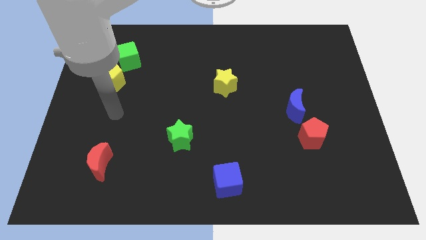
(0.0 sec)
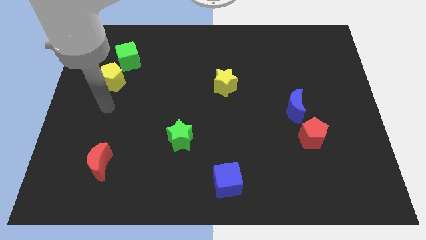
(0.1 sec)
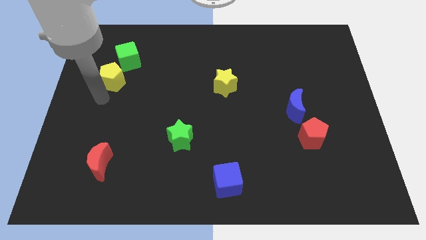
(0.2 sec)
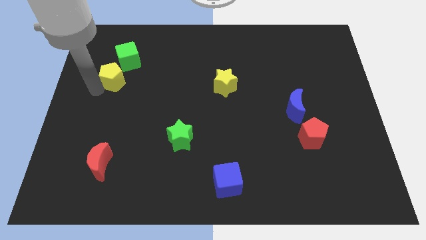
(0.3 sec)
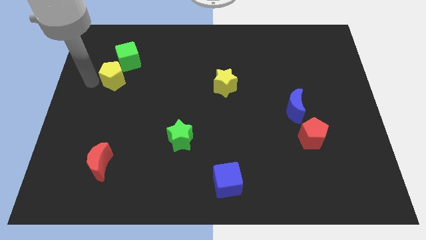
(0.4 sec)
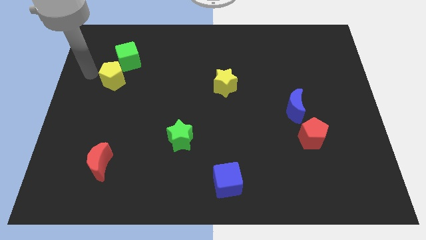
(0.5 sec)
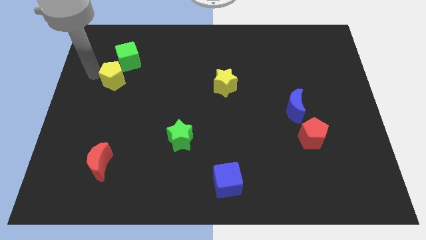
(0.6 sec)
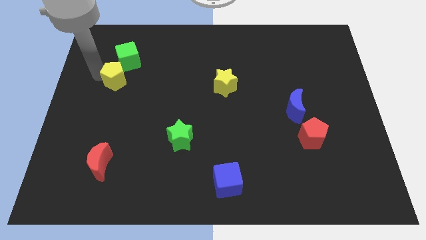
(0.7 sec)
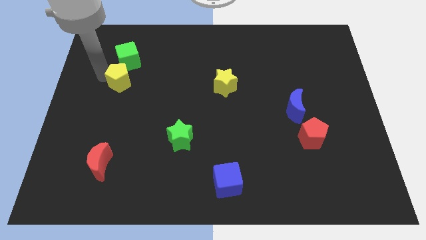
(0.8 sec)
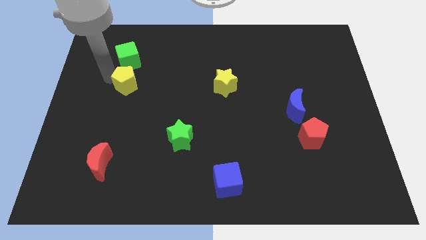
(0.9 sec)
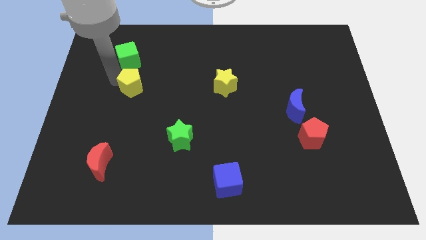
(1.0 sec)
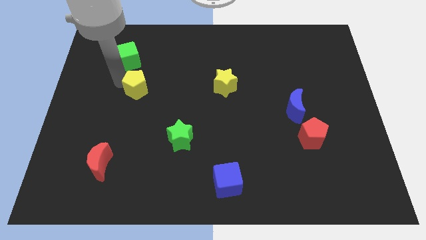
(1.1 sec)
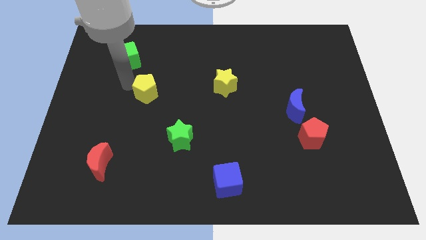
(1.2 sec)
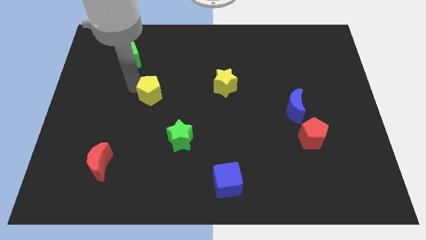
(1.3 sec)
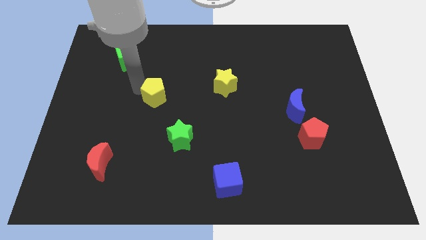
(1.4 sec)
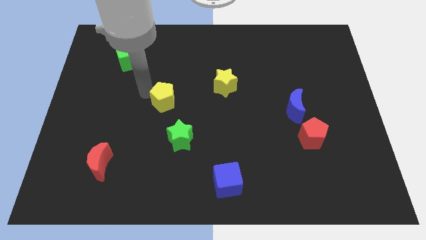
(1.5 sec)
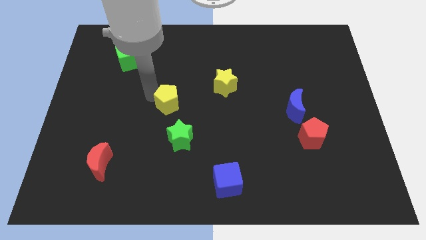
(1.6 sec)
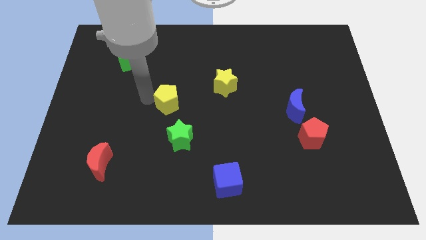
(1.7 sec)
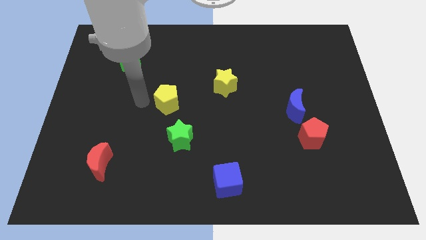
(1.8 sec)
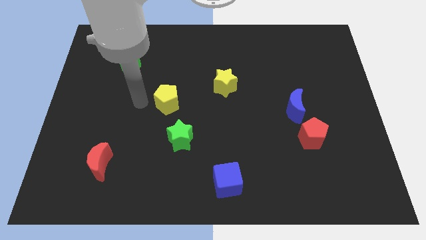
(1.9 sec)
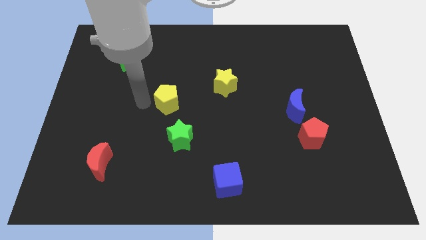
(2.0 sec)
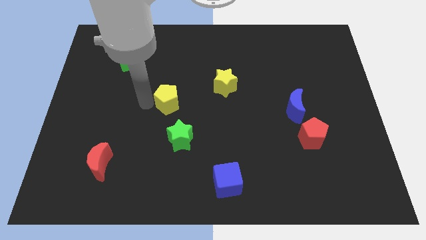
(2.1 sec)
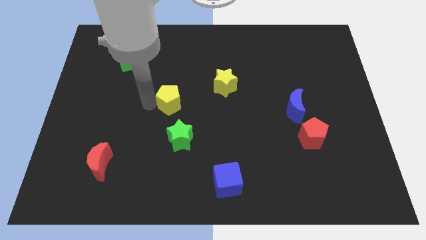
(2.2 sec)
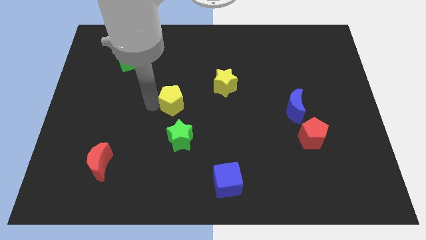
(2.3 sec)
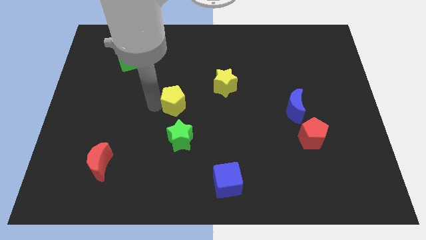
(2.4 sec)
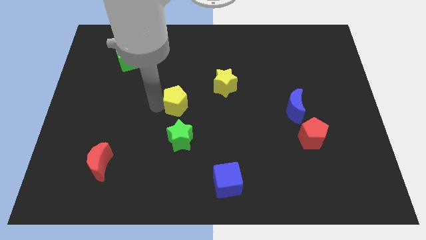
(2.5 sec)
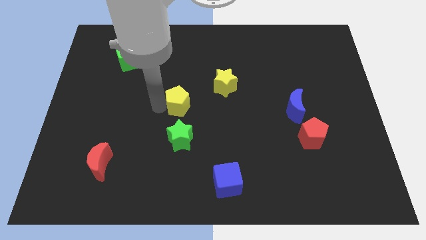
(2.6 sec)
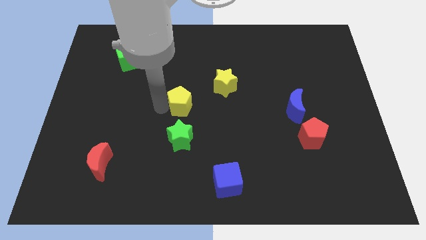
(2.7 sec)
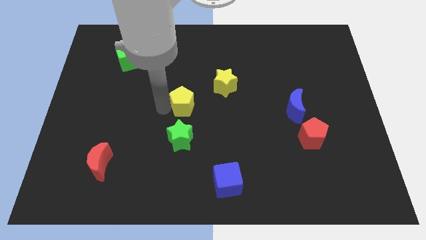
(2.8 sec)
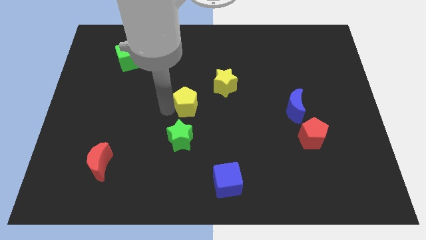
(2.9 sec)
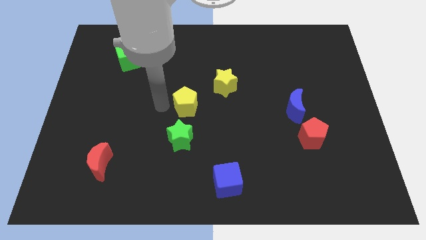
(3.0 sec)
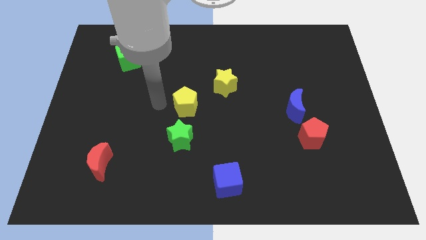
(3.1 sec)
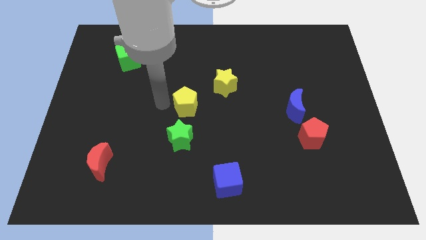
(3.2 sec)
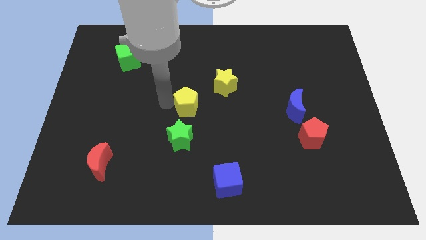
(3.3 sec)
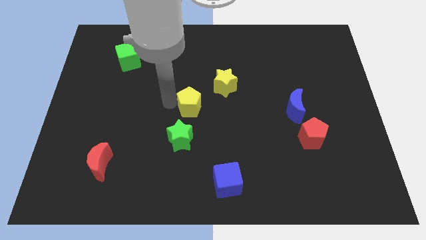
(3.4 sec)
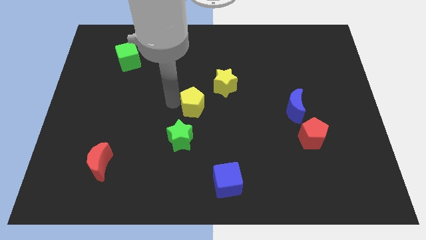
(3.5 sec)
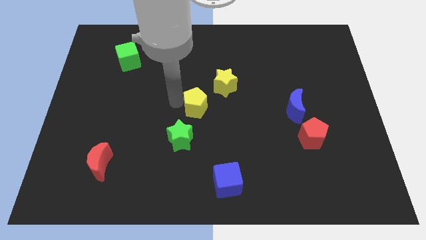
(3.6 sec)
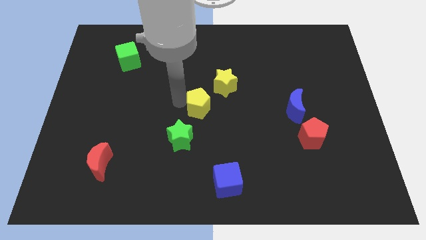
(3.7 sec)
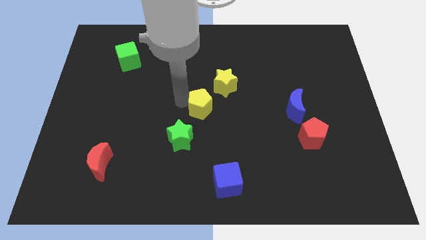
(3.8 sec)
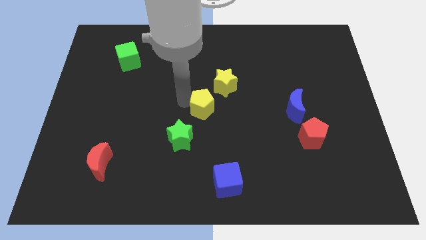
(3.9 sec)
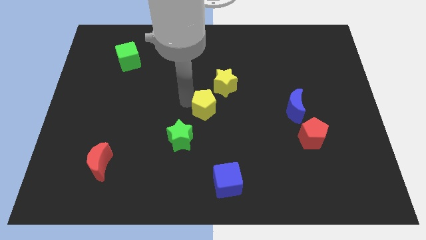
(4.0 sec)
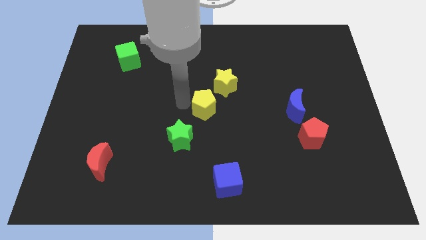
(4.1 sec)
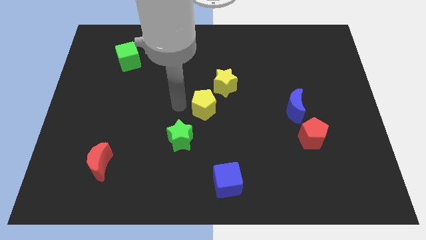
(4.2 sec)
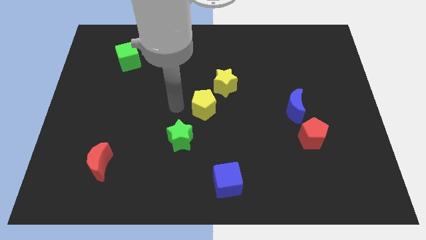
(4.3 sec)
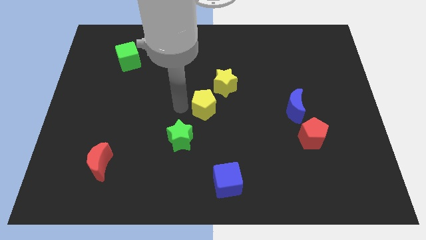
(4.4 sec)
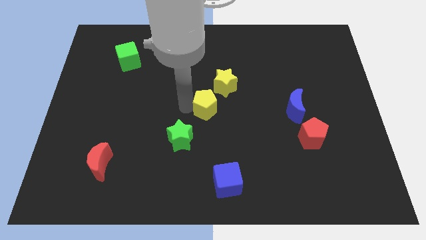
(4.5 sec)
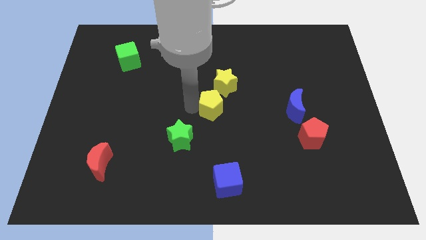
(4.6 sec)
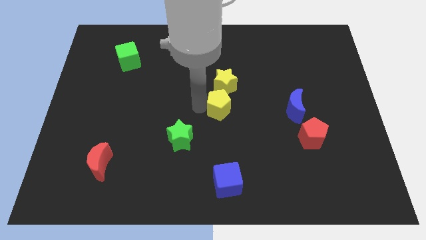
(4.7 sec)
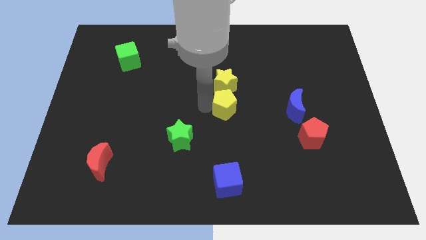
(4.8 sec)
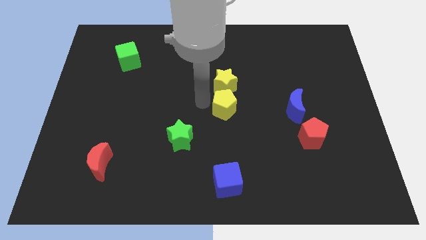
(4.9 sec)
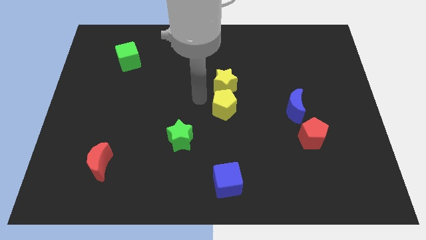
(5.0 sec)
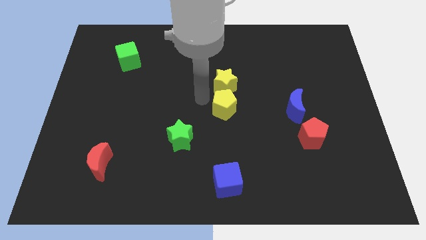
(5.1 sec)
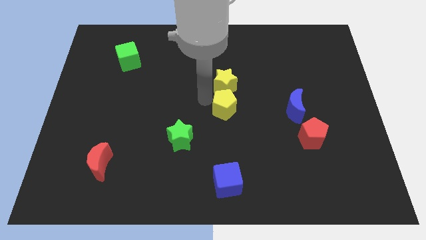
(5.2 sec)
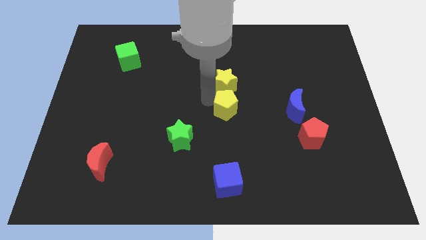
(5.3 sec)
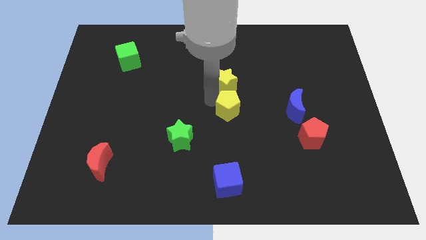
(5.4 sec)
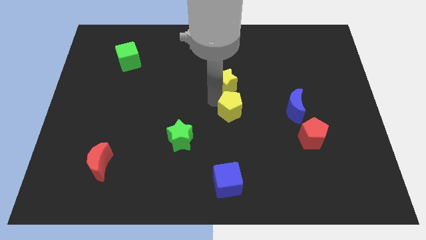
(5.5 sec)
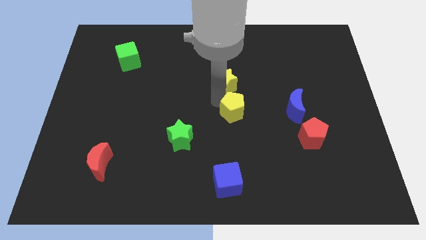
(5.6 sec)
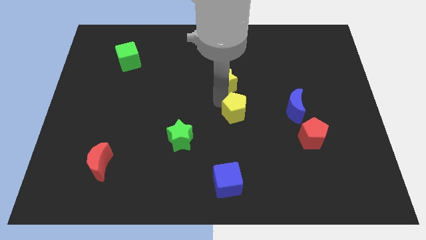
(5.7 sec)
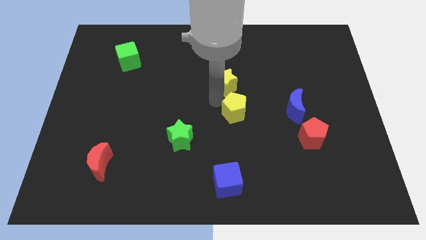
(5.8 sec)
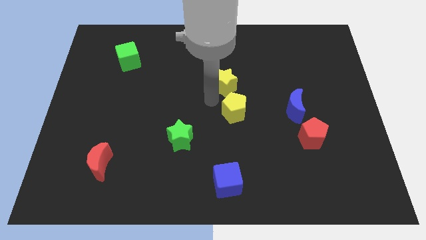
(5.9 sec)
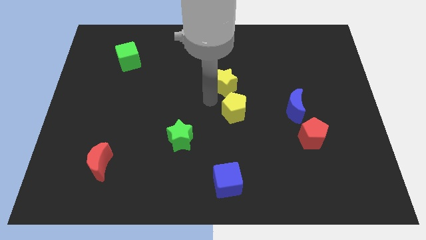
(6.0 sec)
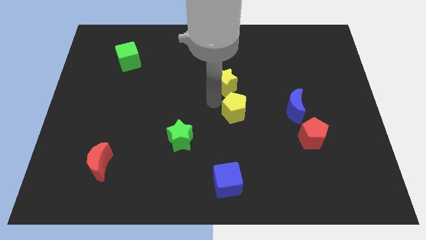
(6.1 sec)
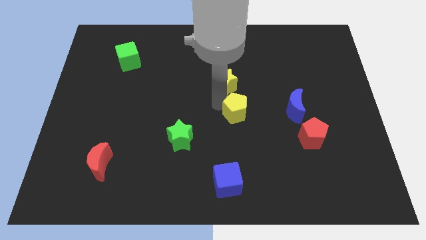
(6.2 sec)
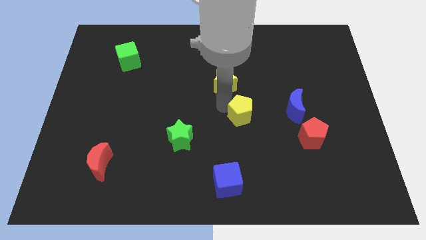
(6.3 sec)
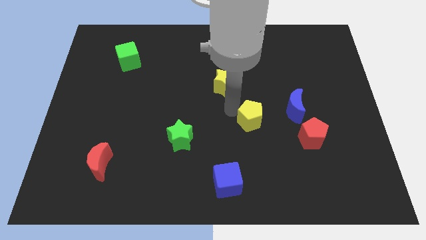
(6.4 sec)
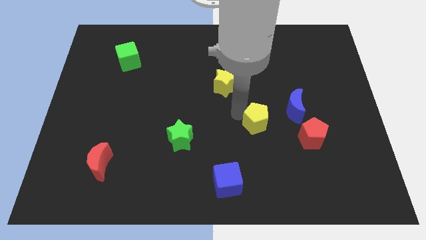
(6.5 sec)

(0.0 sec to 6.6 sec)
put the yellow pentagon to the bottom left of the blue moon
